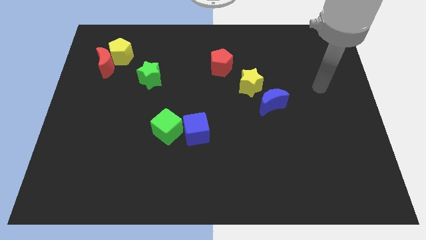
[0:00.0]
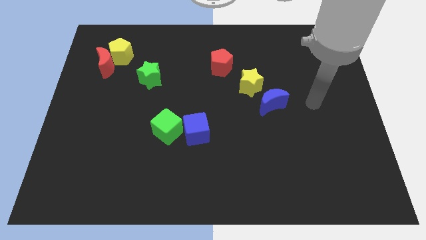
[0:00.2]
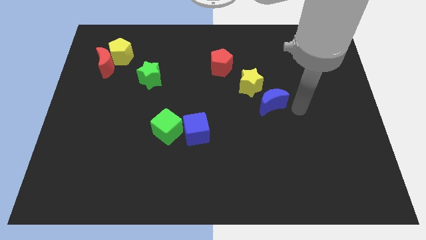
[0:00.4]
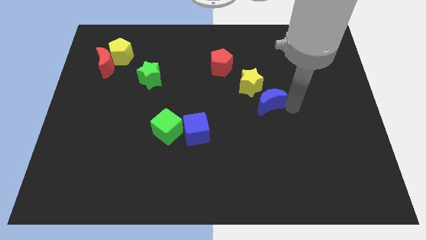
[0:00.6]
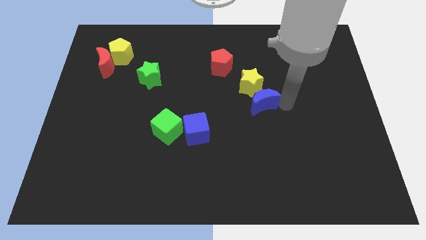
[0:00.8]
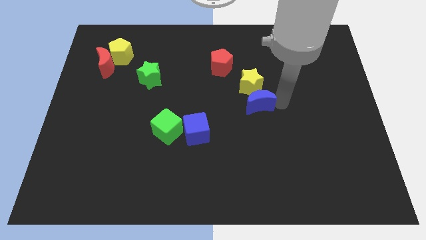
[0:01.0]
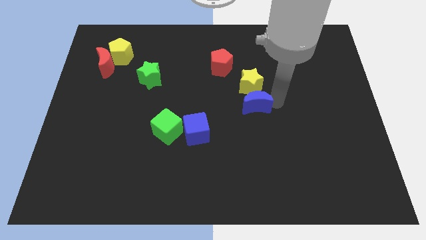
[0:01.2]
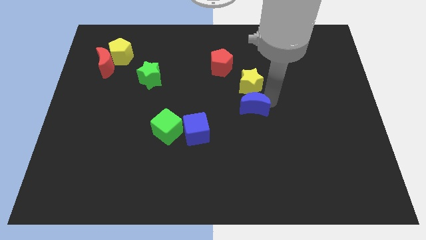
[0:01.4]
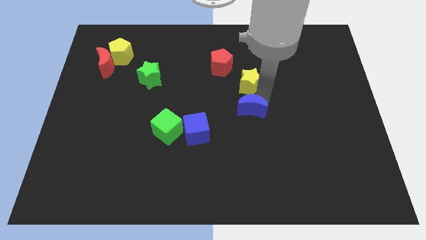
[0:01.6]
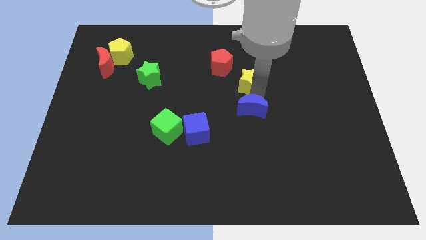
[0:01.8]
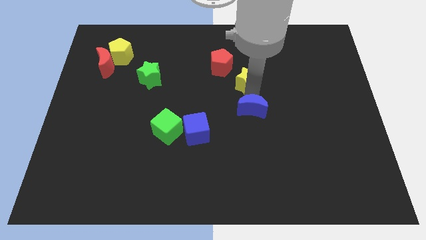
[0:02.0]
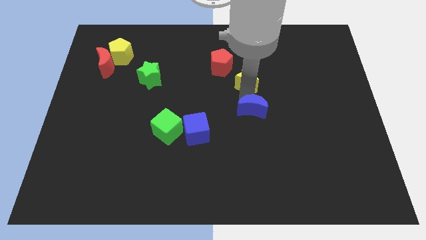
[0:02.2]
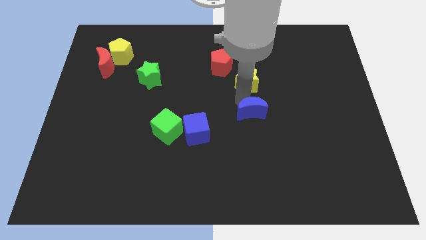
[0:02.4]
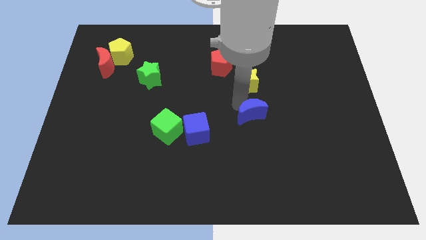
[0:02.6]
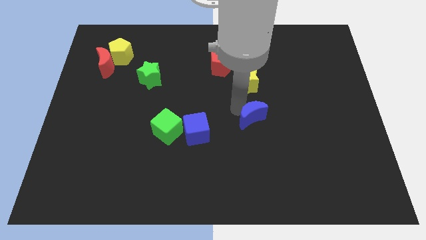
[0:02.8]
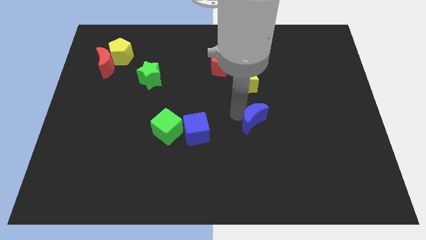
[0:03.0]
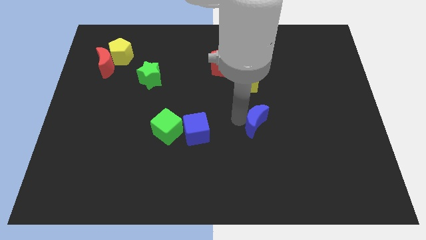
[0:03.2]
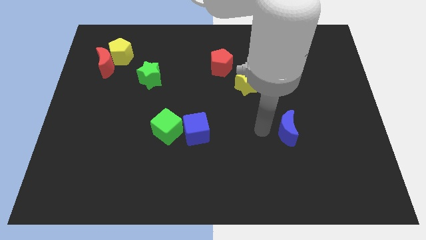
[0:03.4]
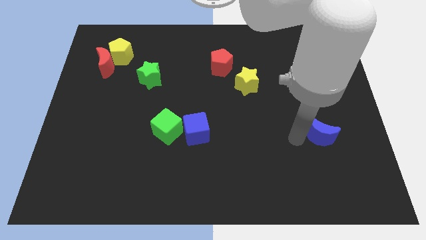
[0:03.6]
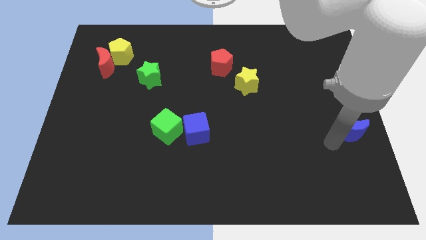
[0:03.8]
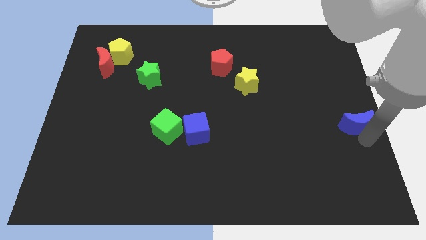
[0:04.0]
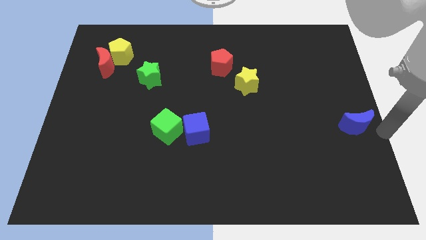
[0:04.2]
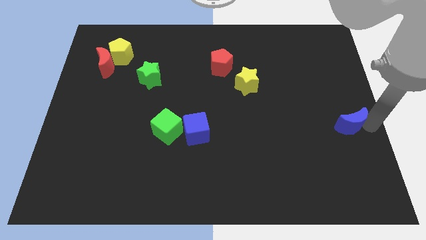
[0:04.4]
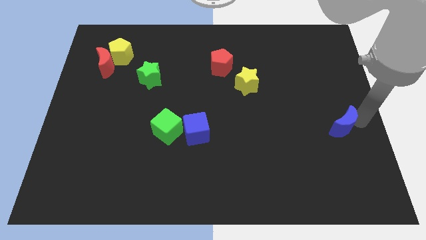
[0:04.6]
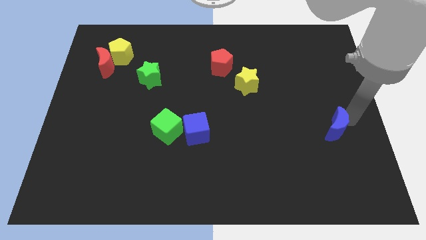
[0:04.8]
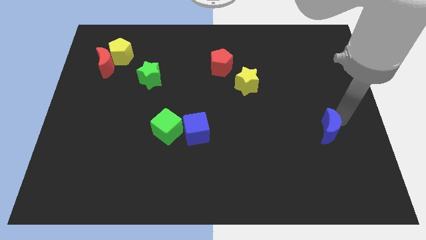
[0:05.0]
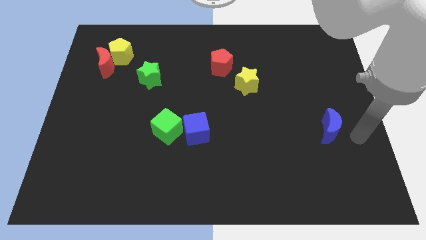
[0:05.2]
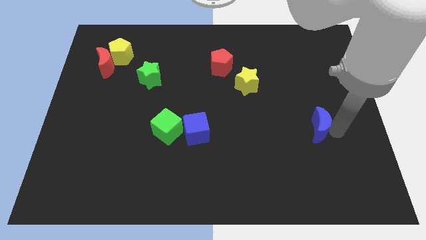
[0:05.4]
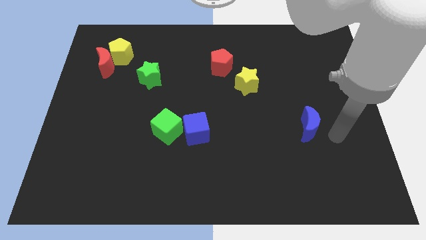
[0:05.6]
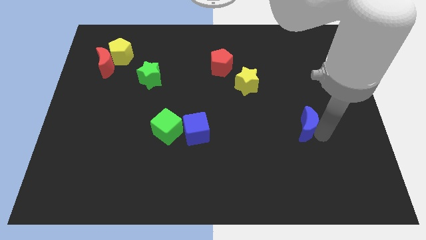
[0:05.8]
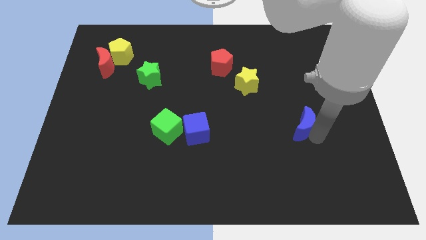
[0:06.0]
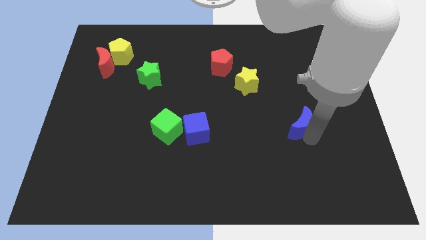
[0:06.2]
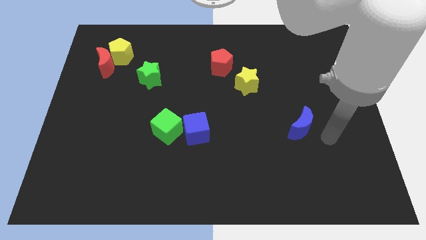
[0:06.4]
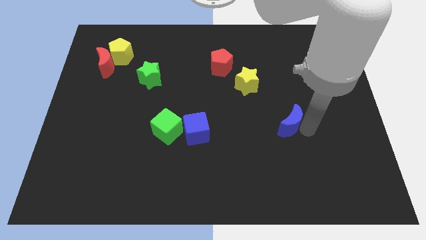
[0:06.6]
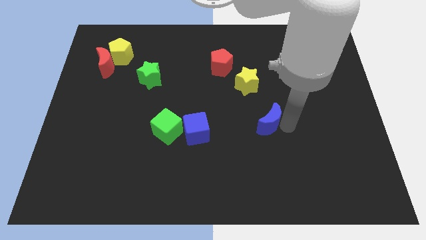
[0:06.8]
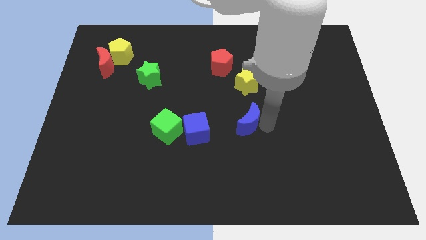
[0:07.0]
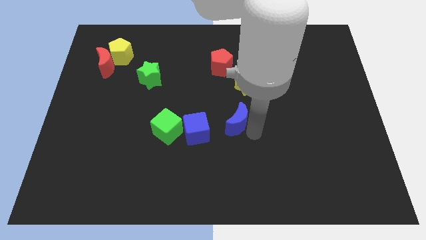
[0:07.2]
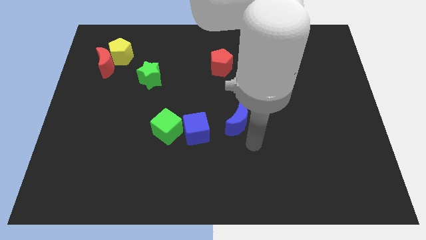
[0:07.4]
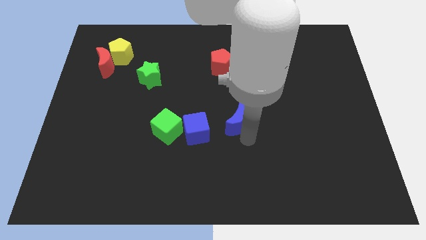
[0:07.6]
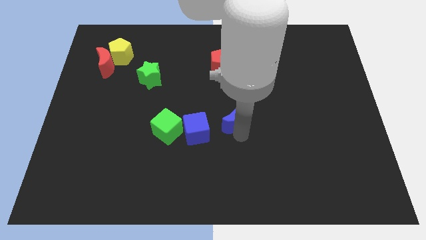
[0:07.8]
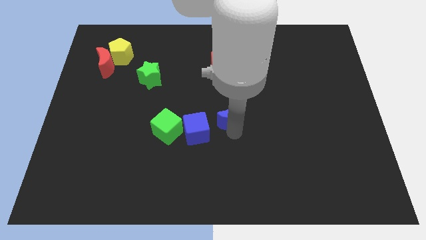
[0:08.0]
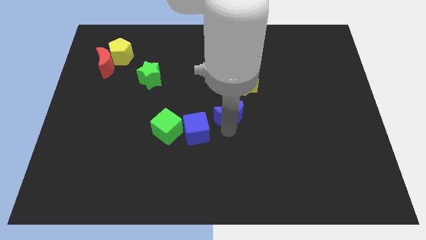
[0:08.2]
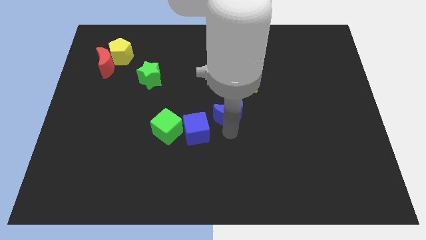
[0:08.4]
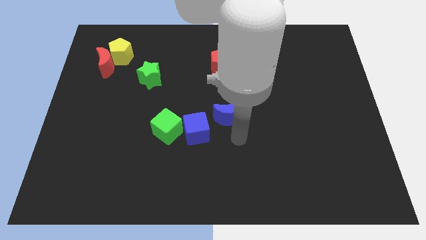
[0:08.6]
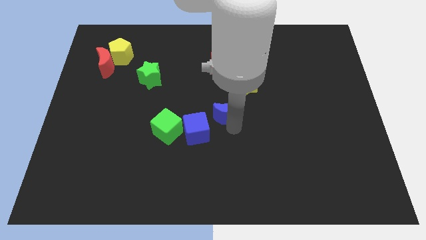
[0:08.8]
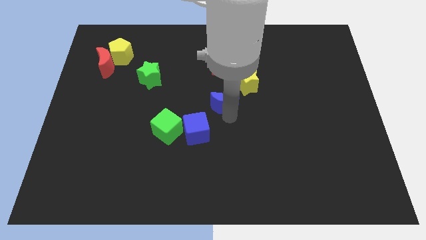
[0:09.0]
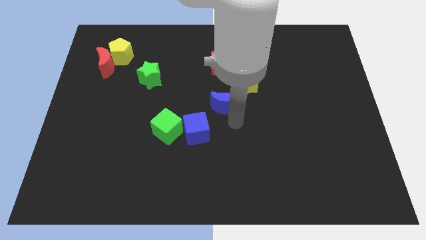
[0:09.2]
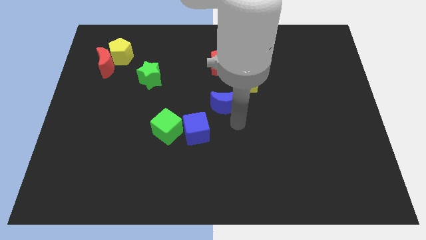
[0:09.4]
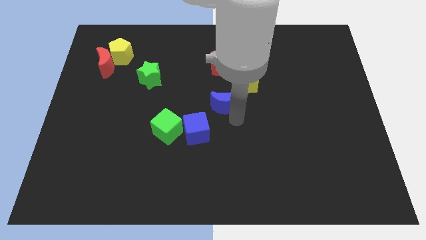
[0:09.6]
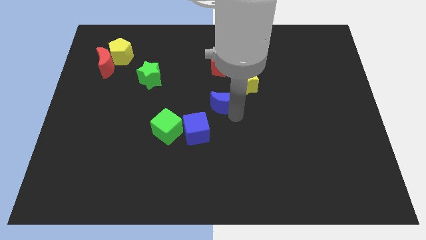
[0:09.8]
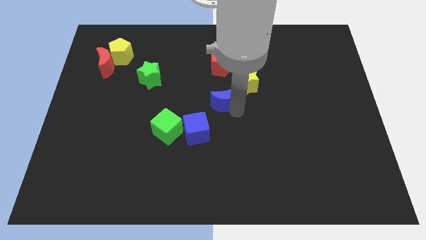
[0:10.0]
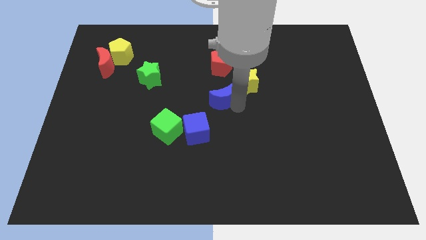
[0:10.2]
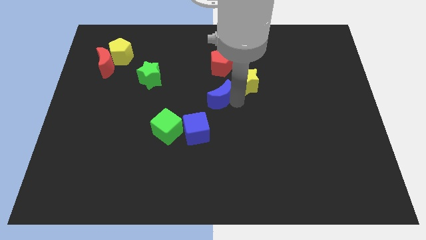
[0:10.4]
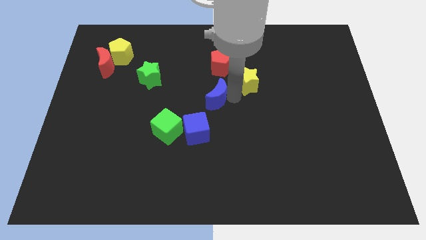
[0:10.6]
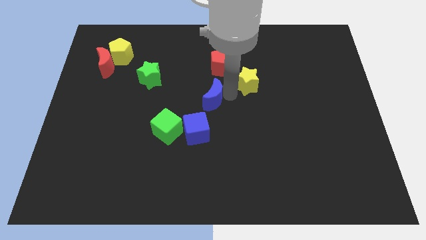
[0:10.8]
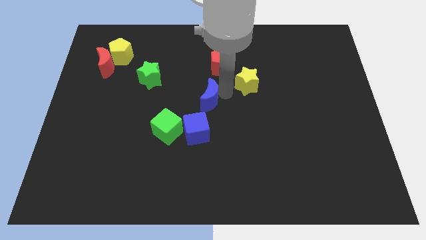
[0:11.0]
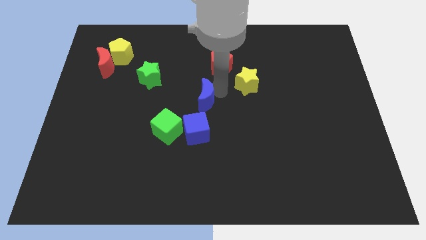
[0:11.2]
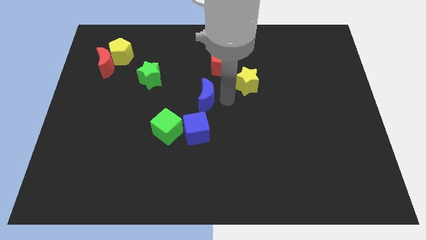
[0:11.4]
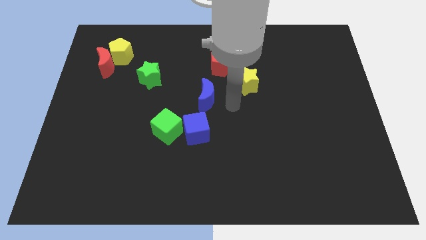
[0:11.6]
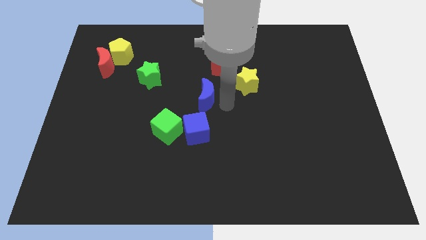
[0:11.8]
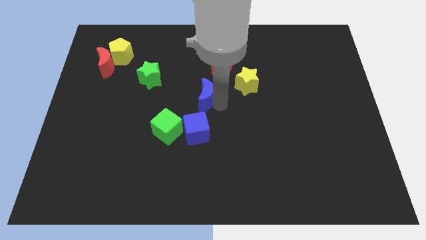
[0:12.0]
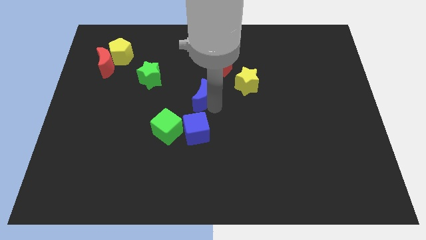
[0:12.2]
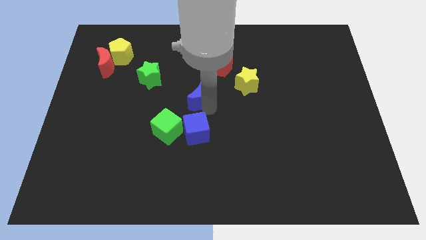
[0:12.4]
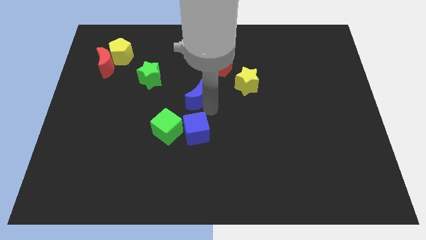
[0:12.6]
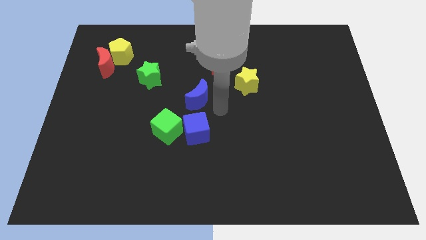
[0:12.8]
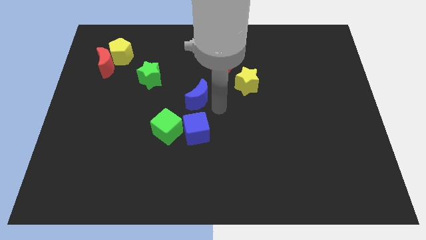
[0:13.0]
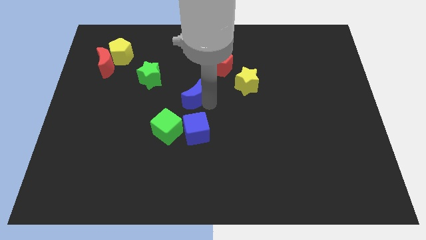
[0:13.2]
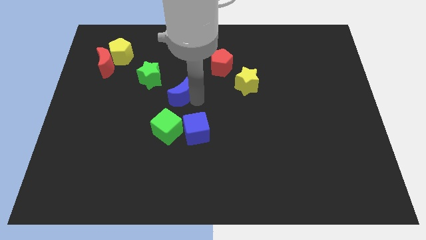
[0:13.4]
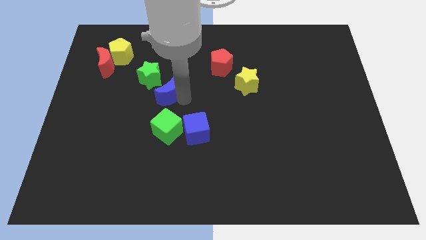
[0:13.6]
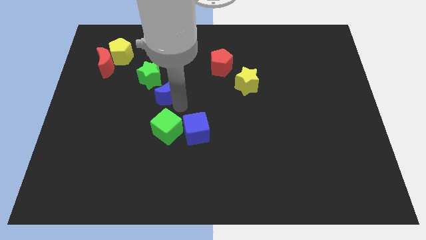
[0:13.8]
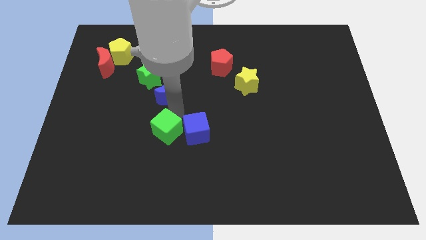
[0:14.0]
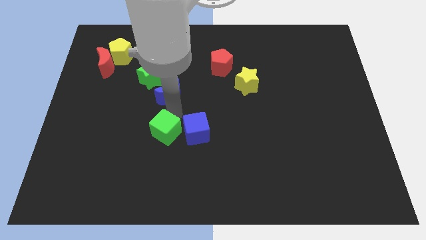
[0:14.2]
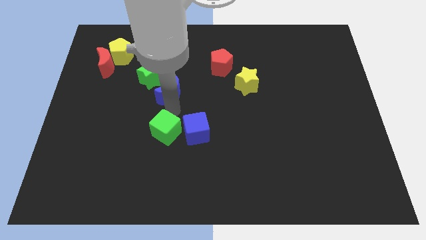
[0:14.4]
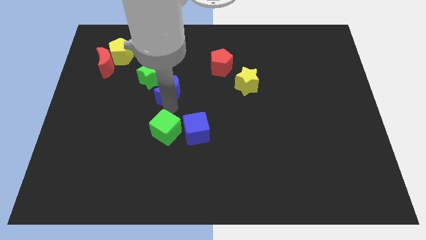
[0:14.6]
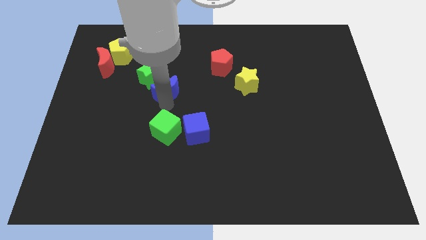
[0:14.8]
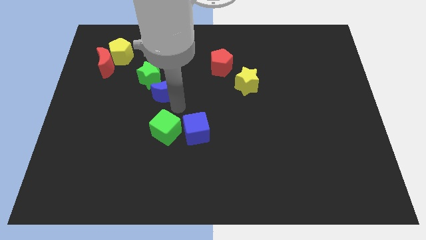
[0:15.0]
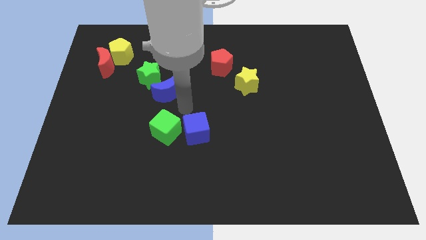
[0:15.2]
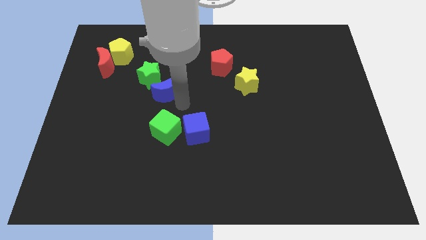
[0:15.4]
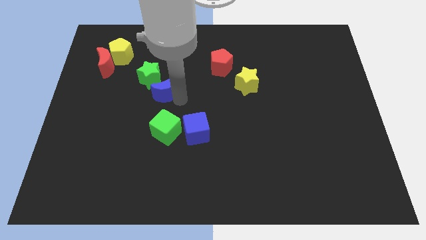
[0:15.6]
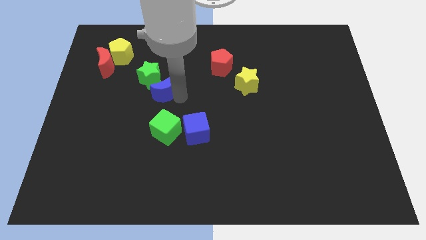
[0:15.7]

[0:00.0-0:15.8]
push the blue moon close to the green star
